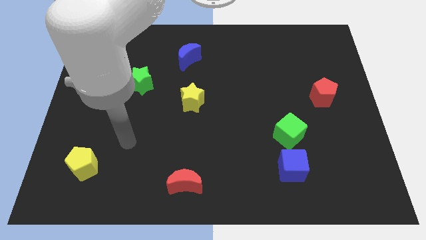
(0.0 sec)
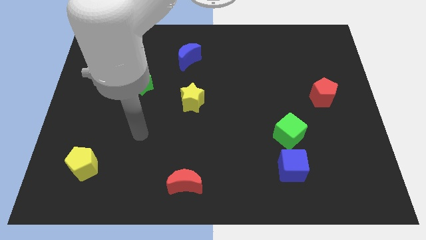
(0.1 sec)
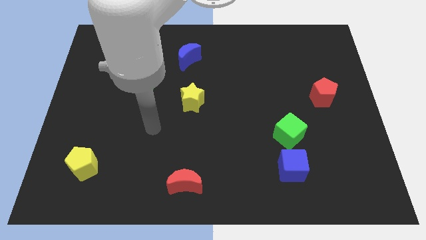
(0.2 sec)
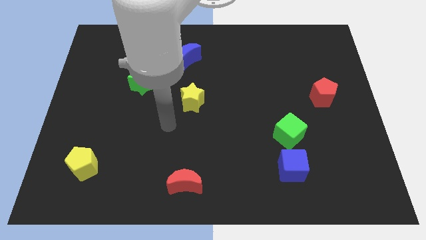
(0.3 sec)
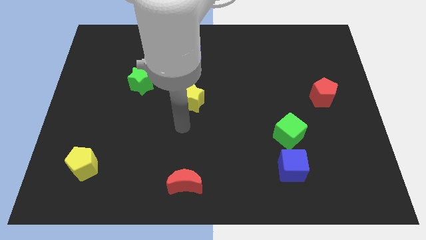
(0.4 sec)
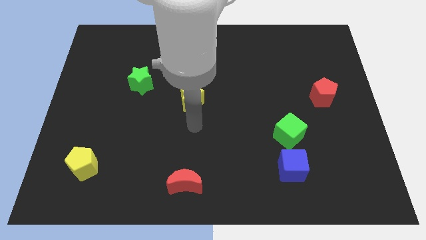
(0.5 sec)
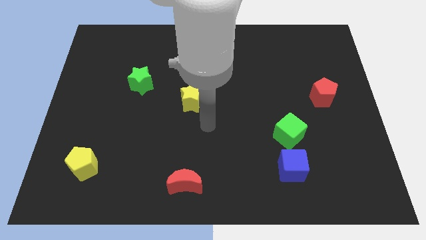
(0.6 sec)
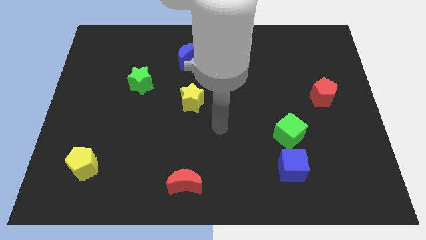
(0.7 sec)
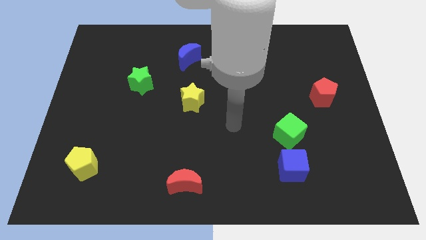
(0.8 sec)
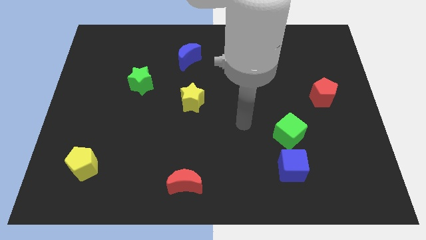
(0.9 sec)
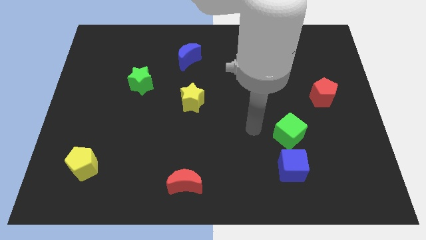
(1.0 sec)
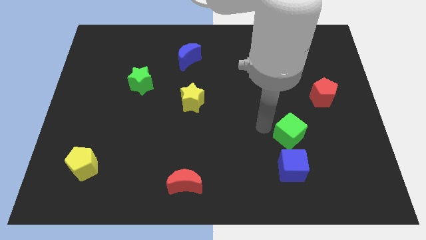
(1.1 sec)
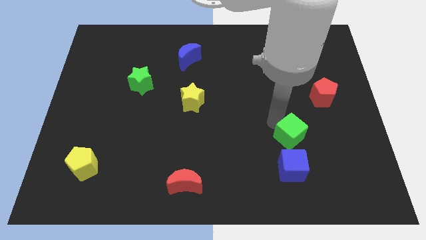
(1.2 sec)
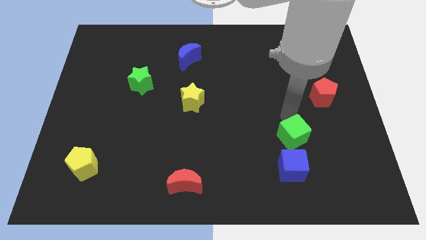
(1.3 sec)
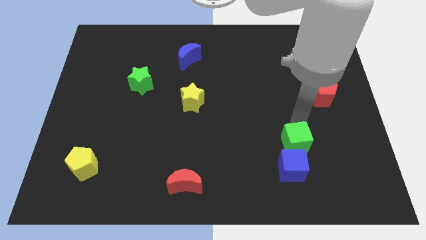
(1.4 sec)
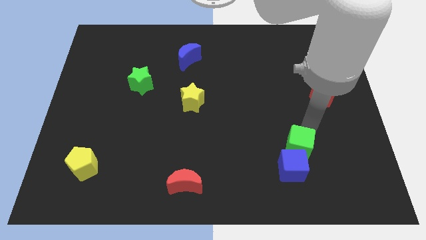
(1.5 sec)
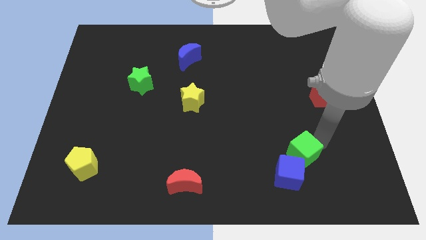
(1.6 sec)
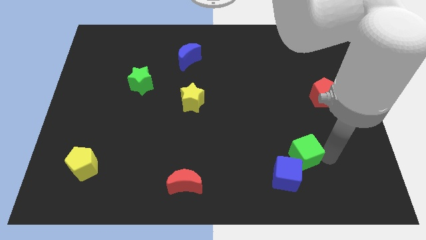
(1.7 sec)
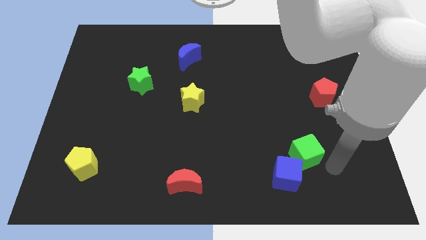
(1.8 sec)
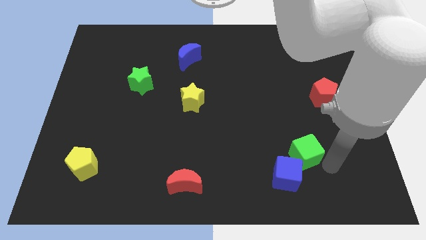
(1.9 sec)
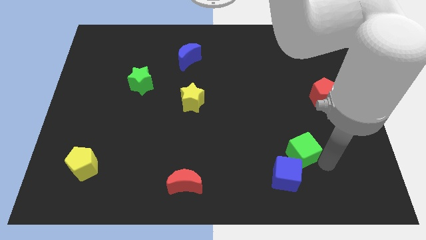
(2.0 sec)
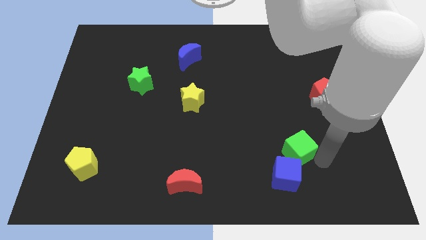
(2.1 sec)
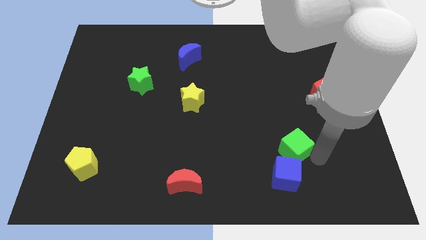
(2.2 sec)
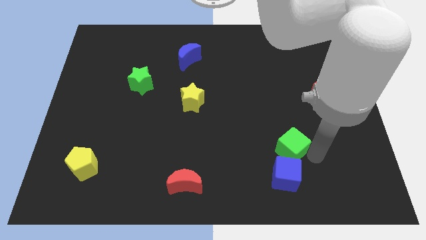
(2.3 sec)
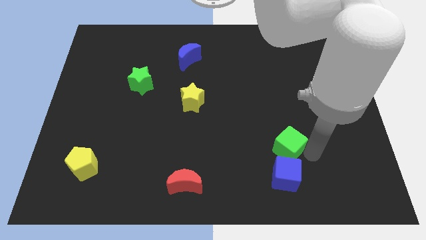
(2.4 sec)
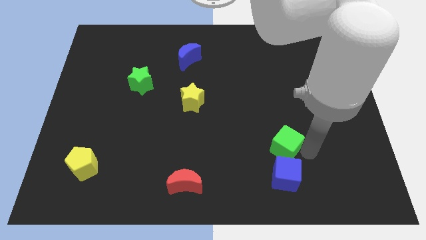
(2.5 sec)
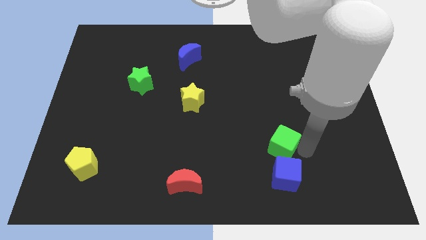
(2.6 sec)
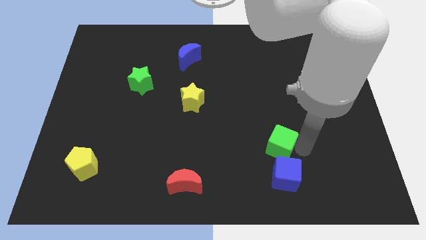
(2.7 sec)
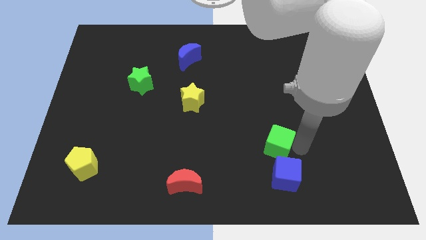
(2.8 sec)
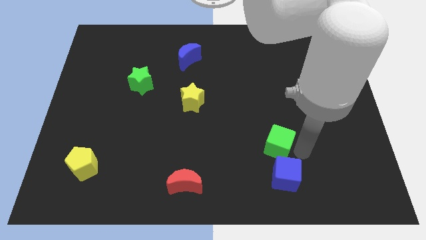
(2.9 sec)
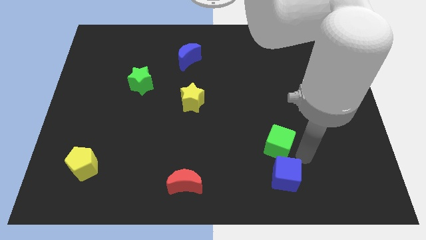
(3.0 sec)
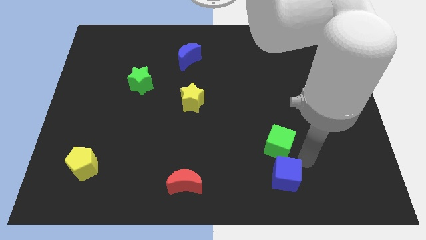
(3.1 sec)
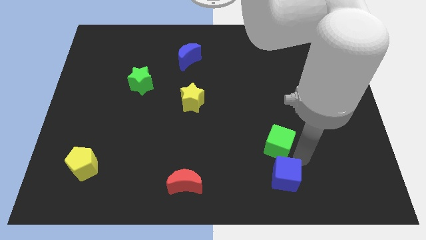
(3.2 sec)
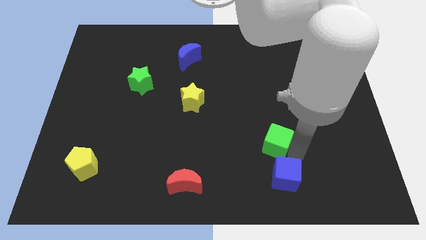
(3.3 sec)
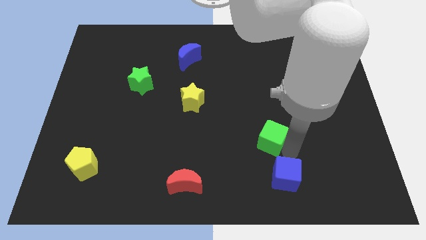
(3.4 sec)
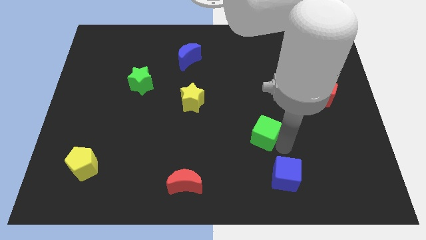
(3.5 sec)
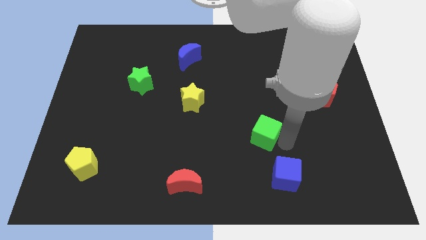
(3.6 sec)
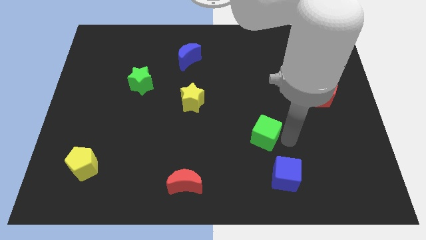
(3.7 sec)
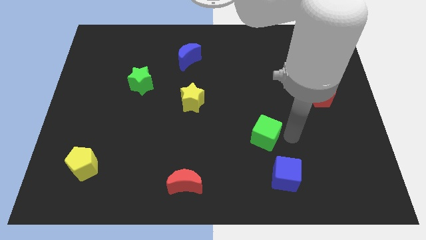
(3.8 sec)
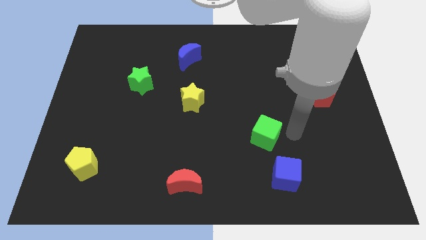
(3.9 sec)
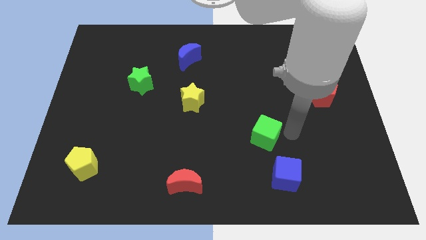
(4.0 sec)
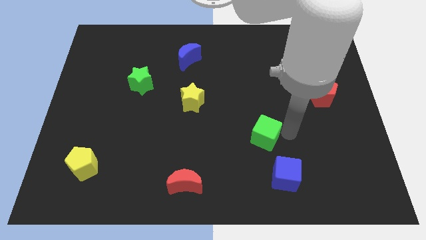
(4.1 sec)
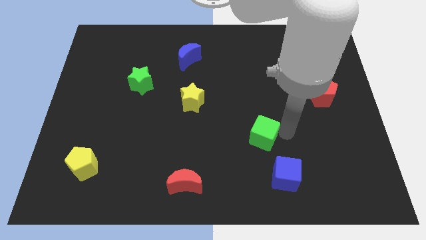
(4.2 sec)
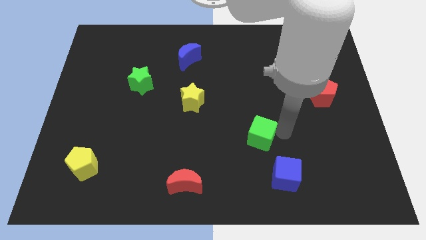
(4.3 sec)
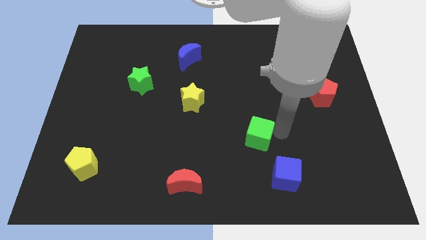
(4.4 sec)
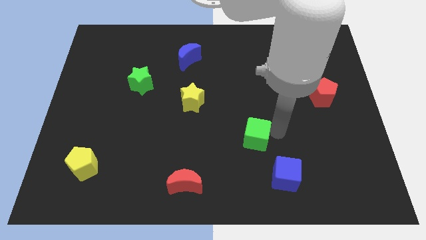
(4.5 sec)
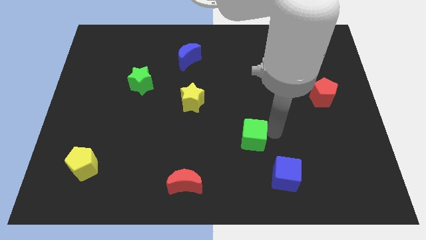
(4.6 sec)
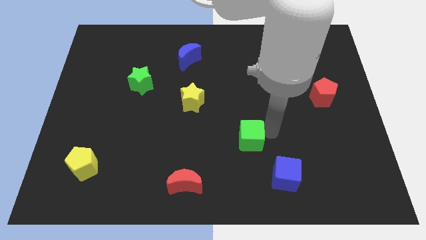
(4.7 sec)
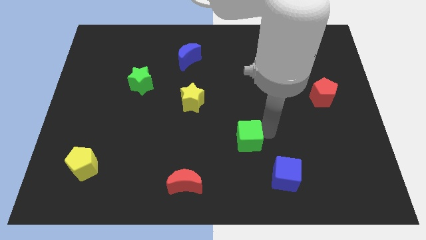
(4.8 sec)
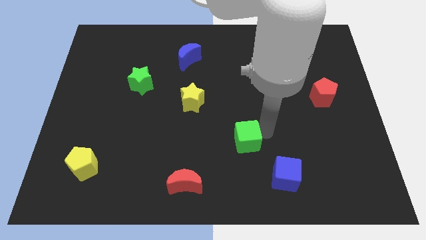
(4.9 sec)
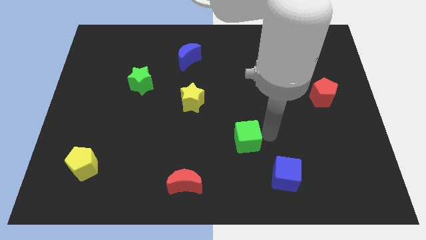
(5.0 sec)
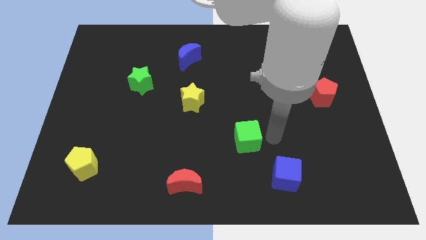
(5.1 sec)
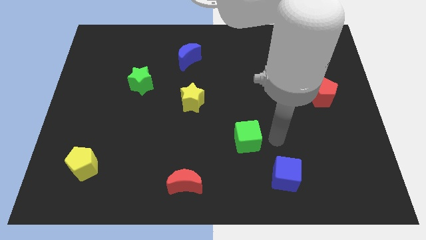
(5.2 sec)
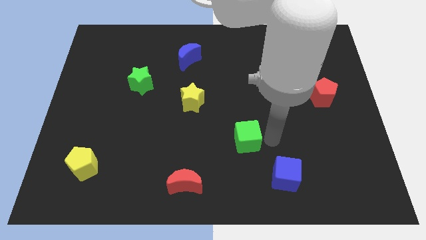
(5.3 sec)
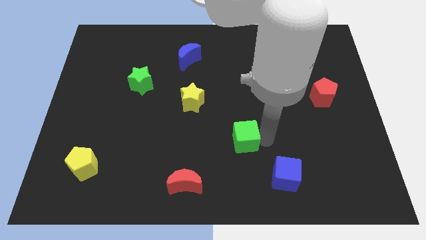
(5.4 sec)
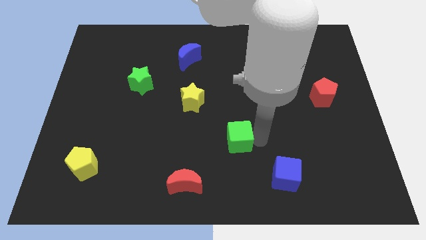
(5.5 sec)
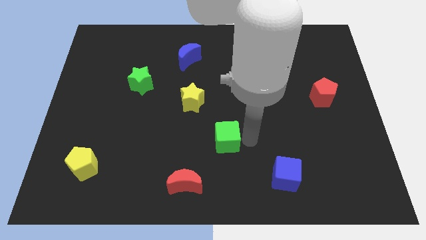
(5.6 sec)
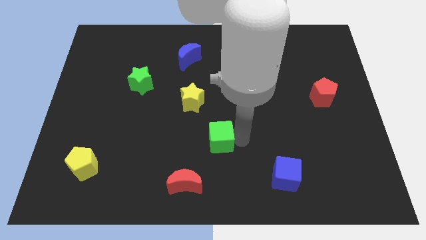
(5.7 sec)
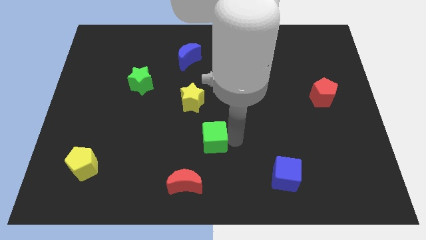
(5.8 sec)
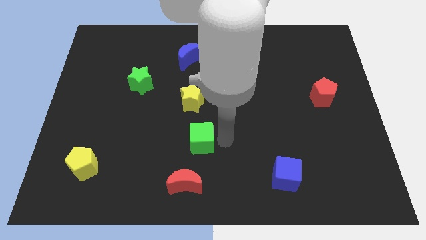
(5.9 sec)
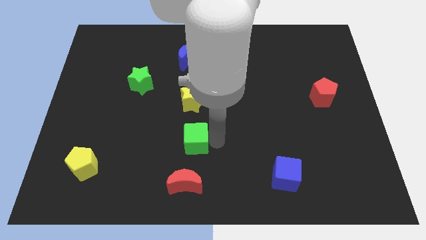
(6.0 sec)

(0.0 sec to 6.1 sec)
slide the green cube to the left

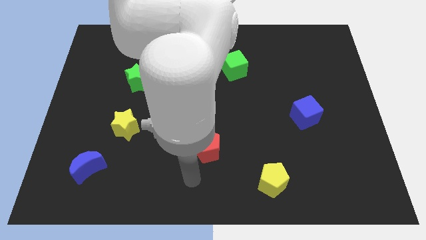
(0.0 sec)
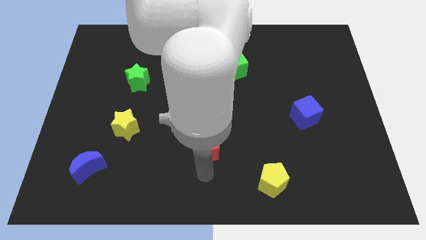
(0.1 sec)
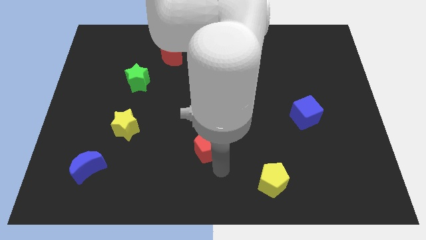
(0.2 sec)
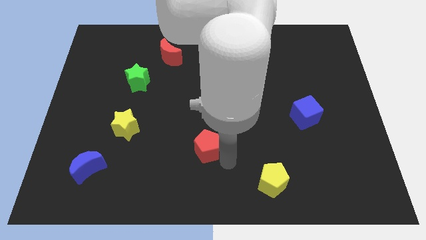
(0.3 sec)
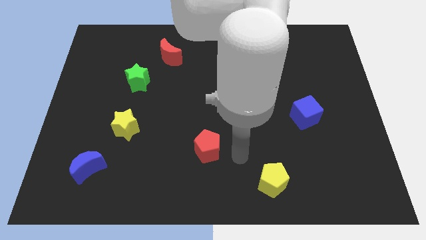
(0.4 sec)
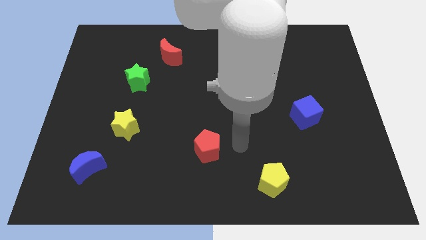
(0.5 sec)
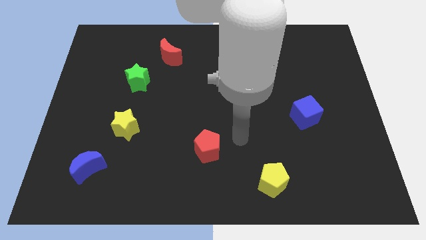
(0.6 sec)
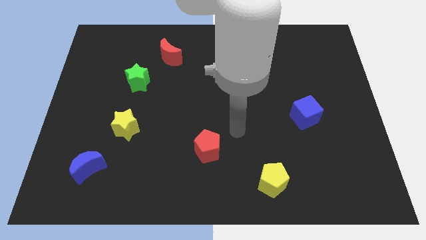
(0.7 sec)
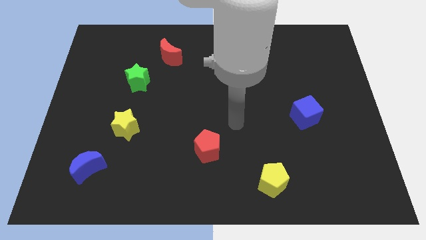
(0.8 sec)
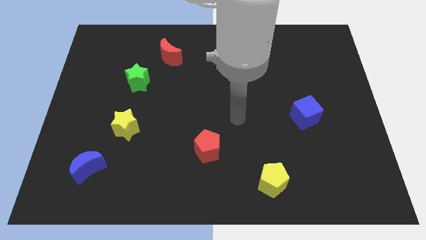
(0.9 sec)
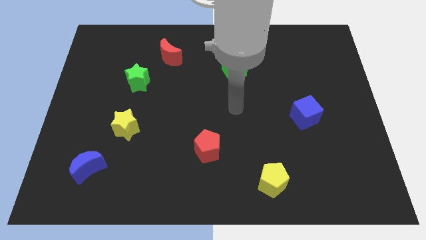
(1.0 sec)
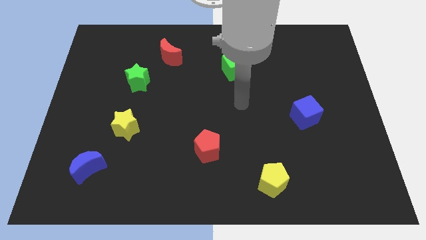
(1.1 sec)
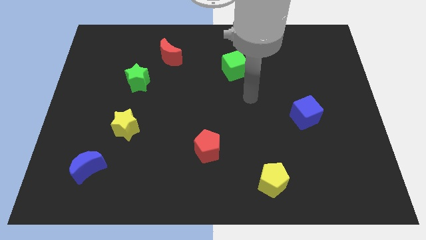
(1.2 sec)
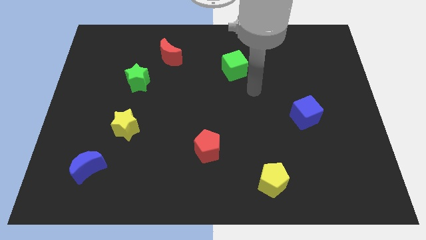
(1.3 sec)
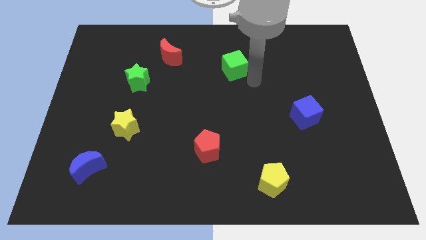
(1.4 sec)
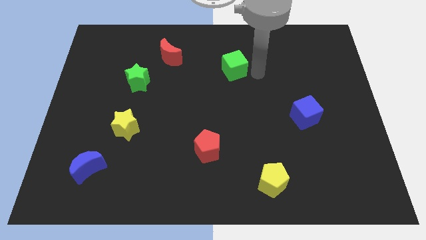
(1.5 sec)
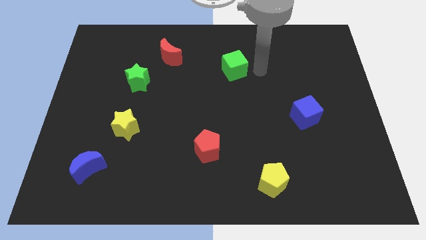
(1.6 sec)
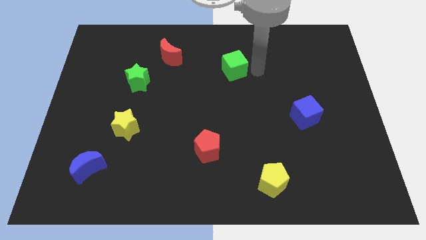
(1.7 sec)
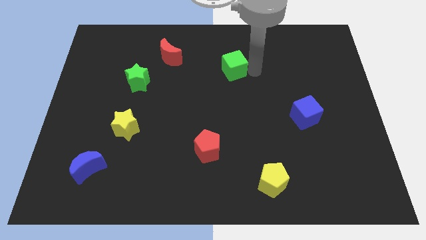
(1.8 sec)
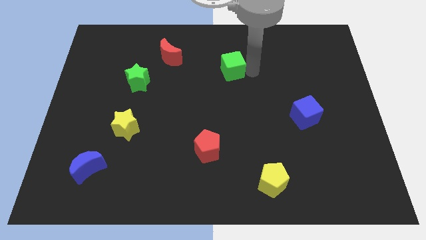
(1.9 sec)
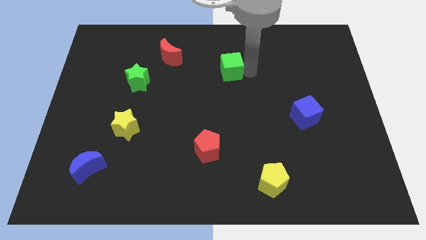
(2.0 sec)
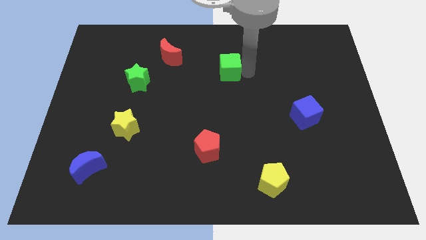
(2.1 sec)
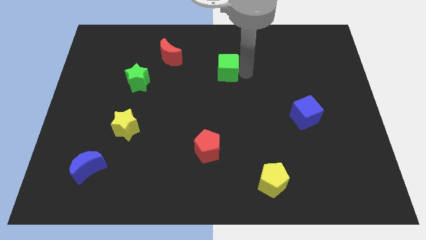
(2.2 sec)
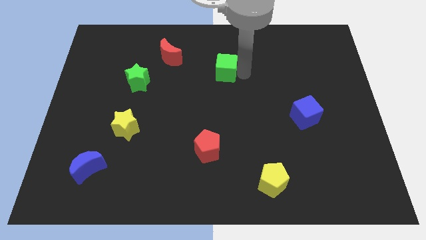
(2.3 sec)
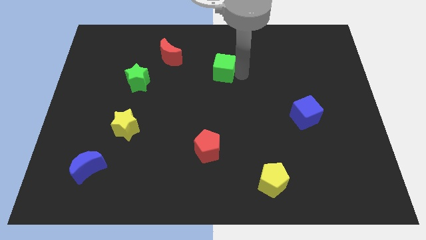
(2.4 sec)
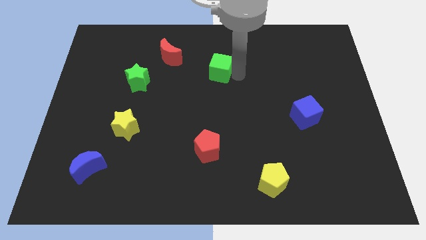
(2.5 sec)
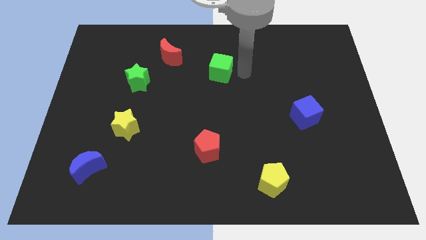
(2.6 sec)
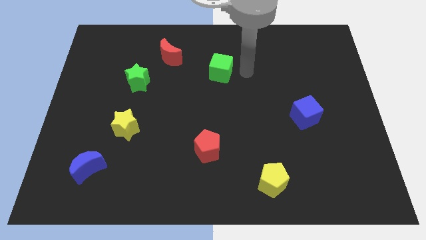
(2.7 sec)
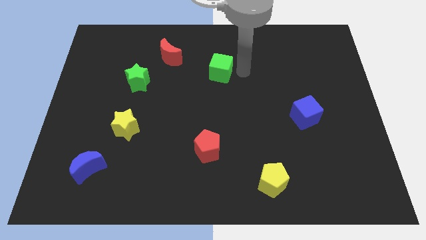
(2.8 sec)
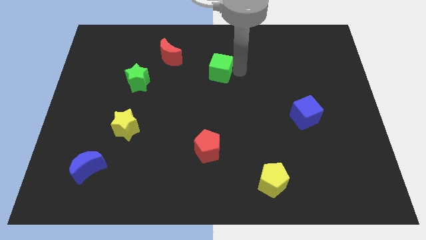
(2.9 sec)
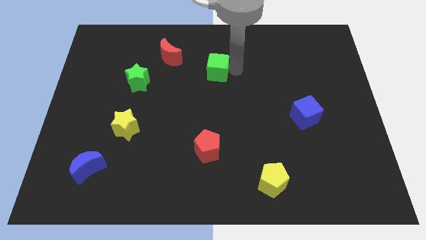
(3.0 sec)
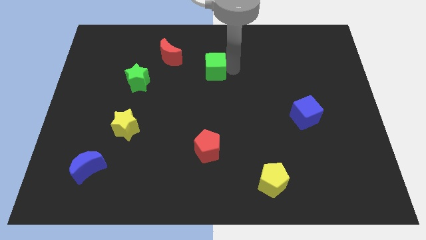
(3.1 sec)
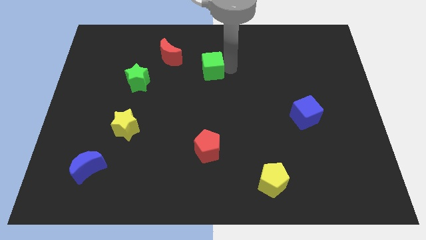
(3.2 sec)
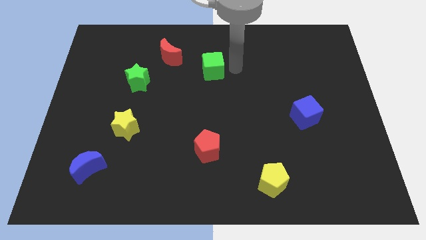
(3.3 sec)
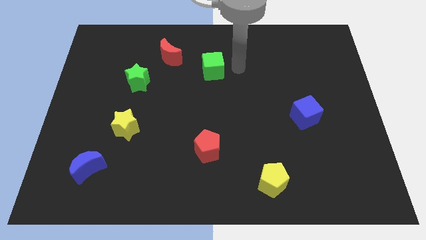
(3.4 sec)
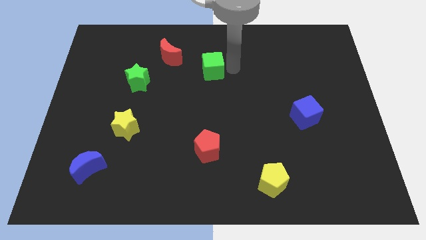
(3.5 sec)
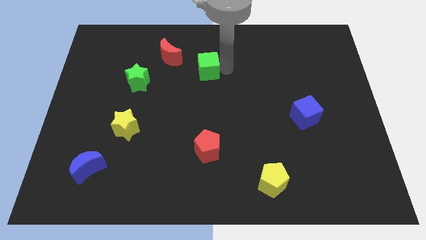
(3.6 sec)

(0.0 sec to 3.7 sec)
slide the green cube slightly left
